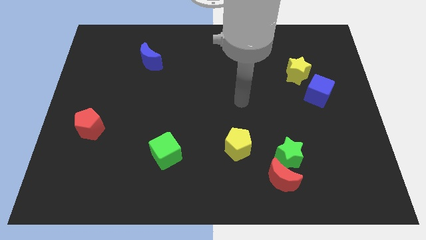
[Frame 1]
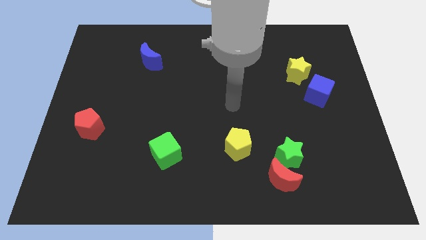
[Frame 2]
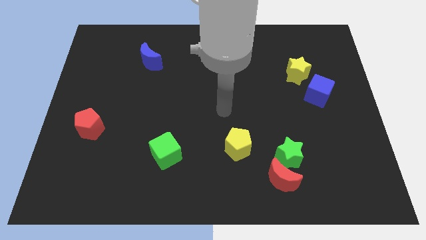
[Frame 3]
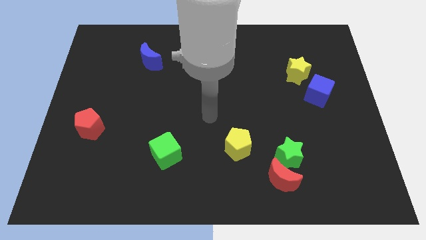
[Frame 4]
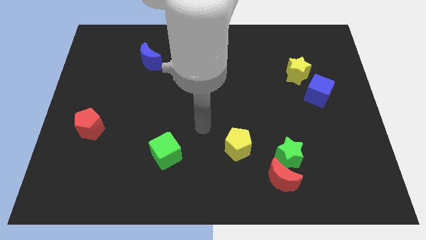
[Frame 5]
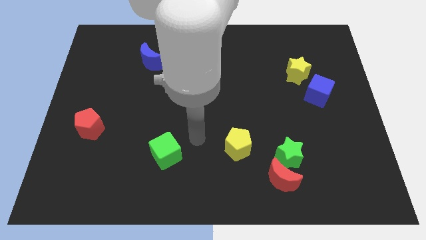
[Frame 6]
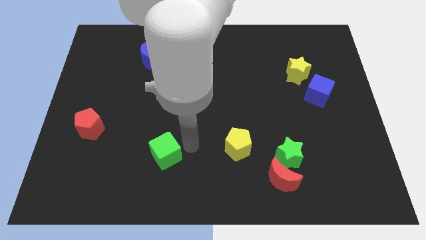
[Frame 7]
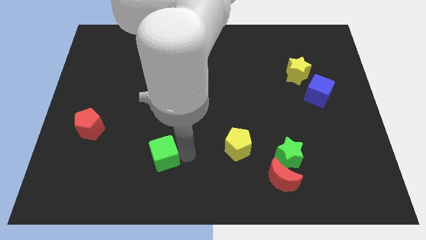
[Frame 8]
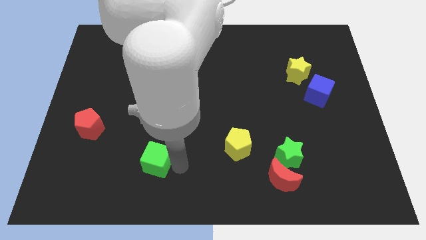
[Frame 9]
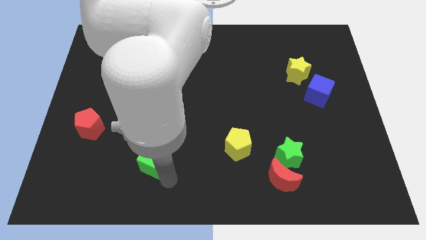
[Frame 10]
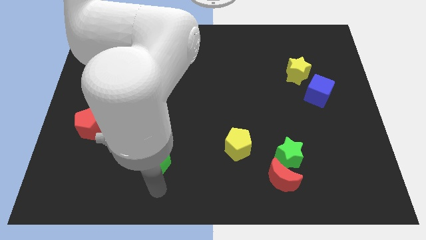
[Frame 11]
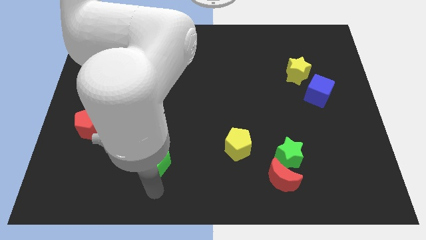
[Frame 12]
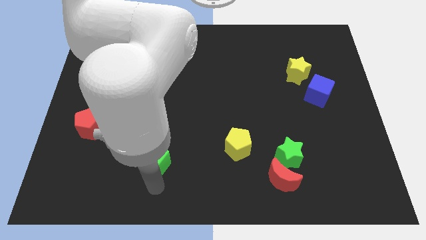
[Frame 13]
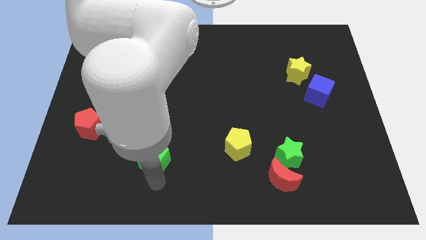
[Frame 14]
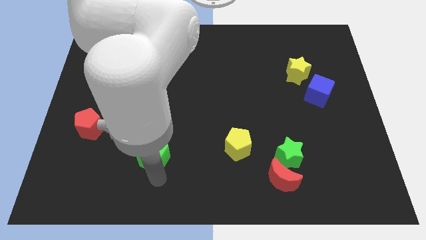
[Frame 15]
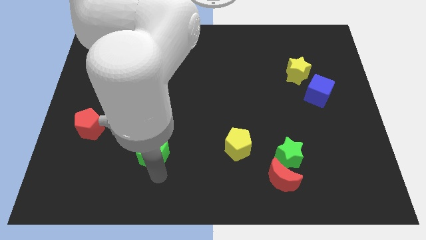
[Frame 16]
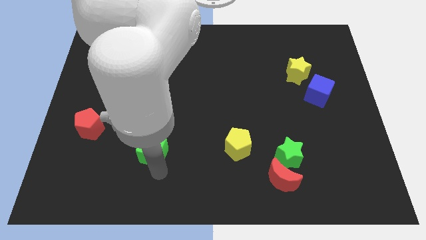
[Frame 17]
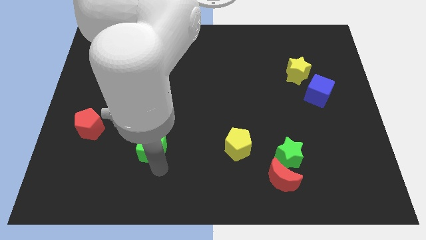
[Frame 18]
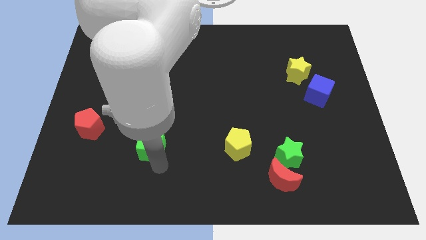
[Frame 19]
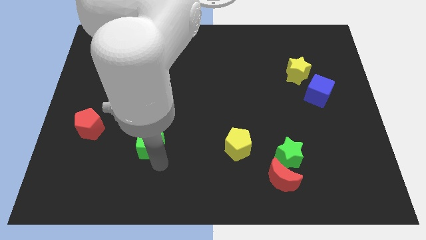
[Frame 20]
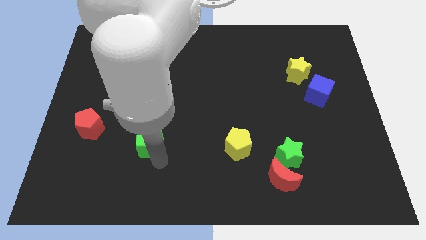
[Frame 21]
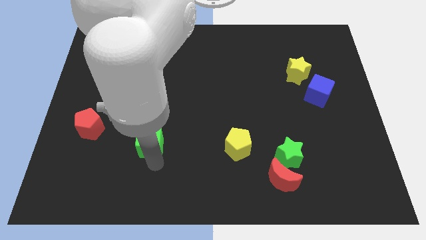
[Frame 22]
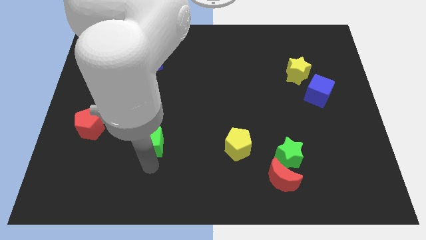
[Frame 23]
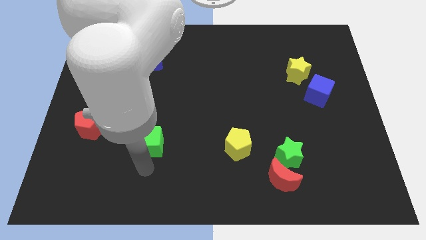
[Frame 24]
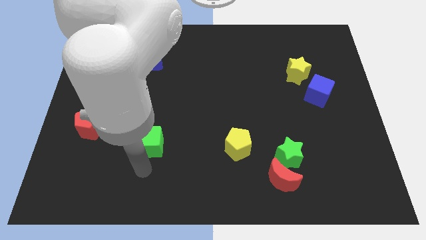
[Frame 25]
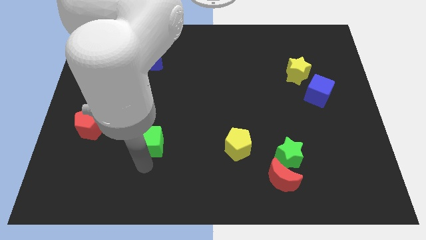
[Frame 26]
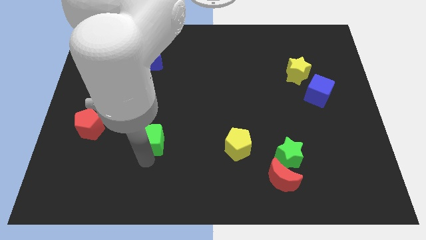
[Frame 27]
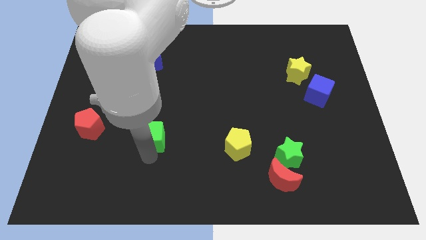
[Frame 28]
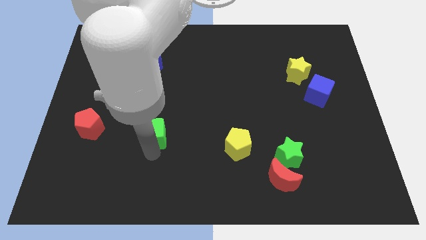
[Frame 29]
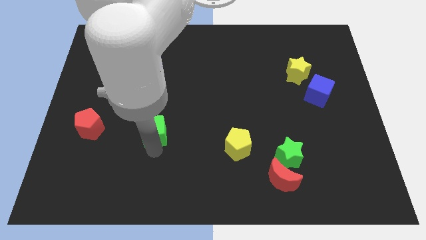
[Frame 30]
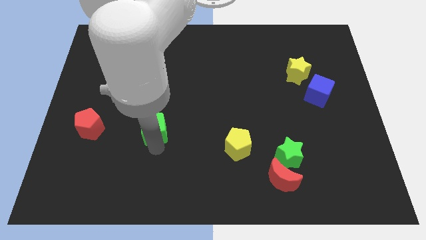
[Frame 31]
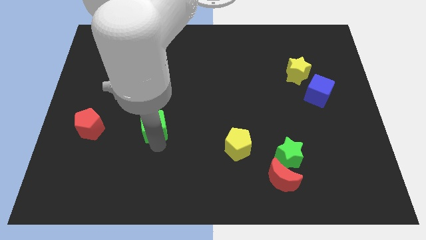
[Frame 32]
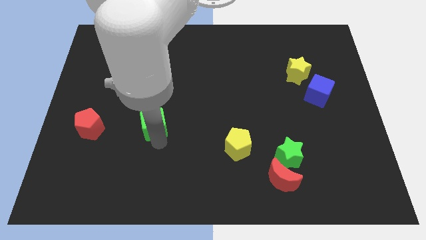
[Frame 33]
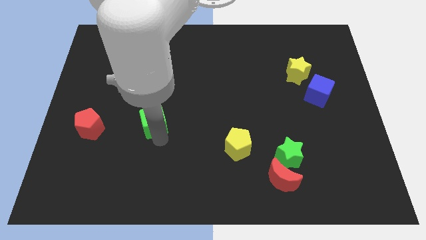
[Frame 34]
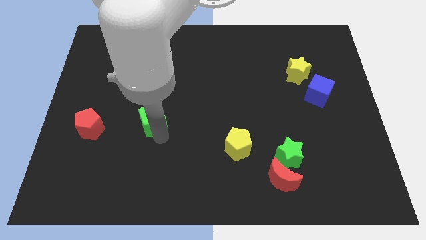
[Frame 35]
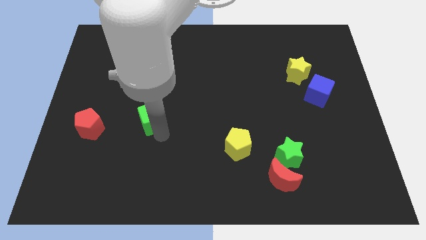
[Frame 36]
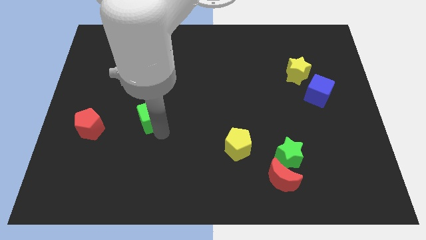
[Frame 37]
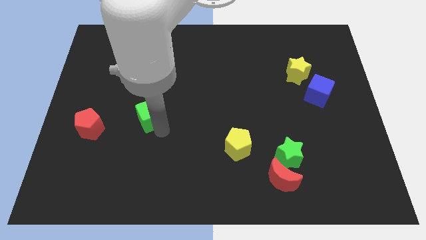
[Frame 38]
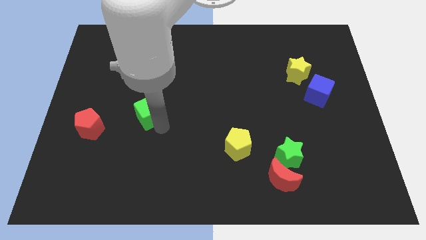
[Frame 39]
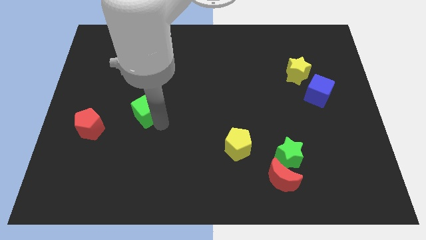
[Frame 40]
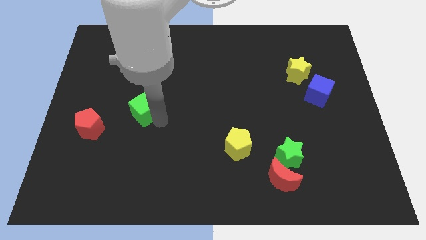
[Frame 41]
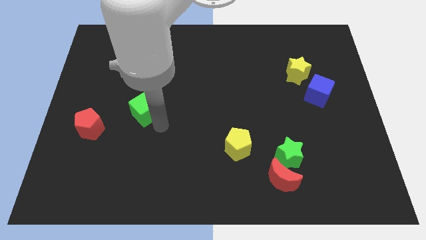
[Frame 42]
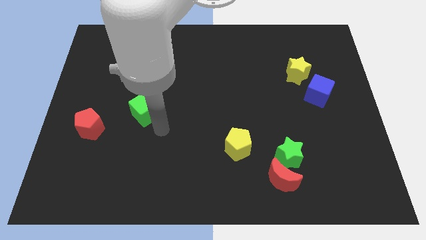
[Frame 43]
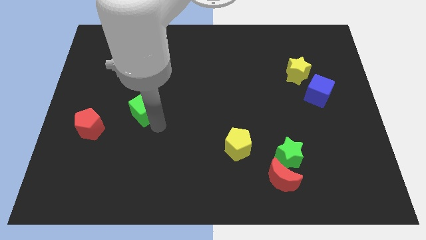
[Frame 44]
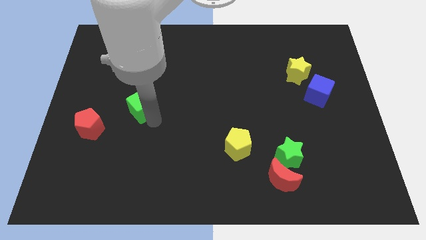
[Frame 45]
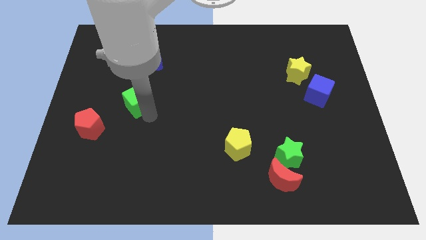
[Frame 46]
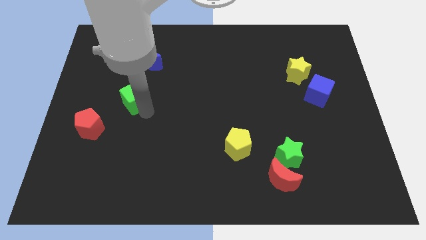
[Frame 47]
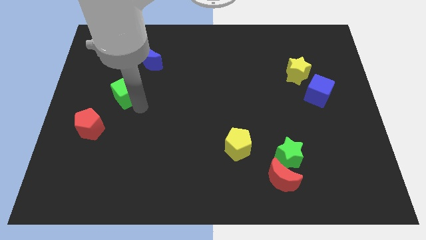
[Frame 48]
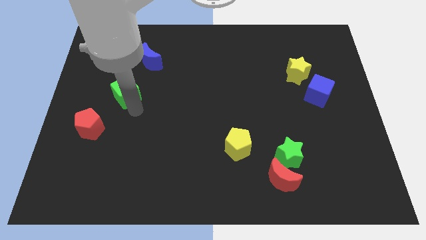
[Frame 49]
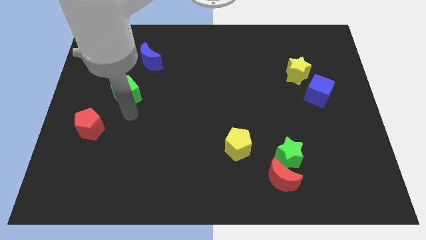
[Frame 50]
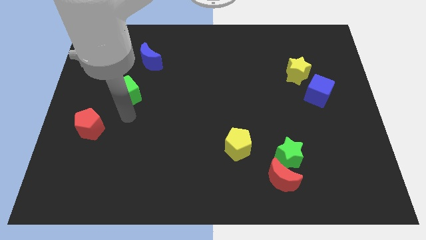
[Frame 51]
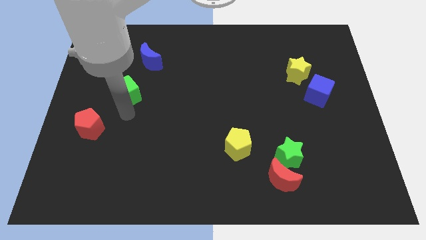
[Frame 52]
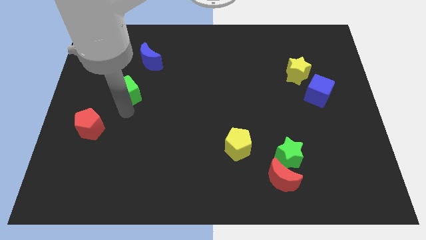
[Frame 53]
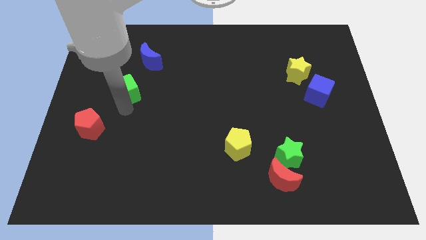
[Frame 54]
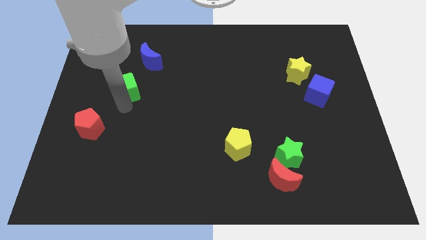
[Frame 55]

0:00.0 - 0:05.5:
put the green cube to the bottom left side of the blue moon

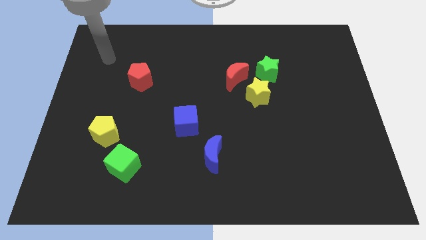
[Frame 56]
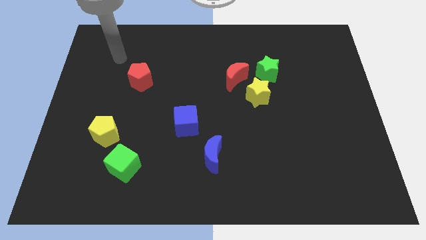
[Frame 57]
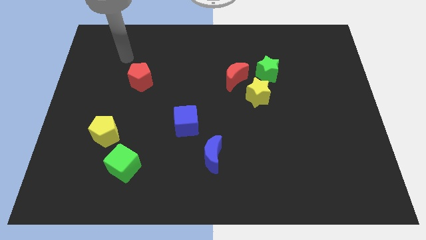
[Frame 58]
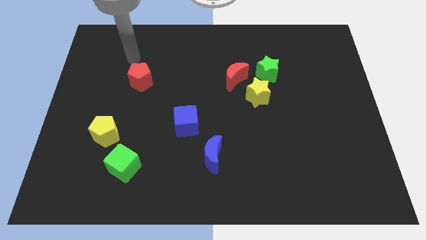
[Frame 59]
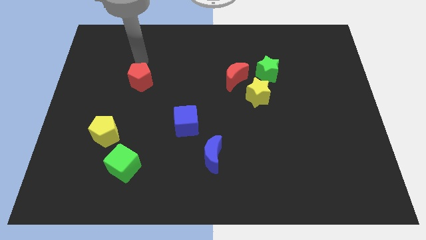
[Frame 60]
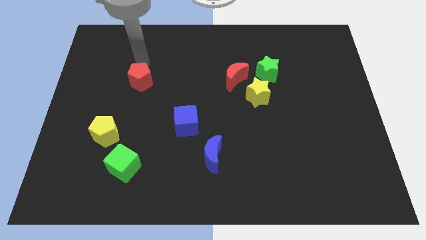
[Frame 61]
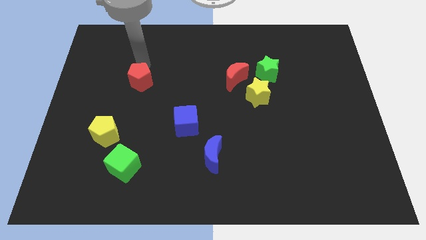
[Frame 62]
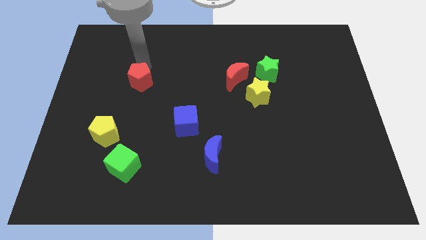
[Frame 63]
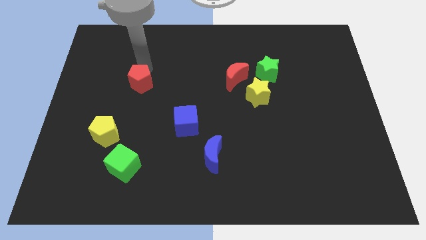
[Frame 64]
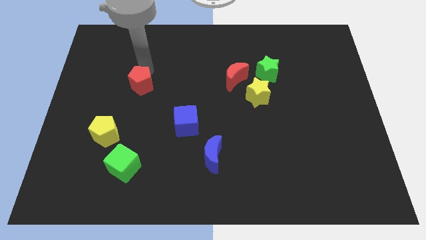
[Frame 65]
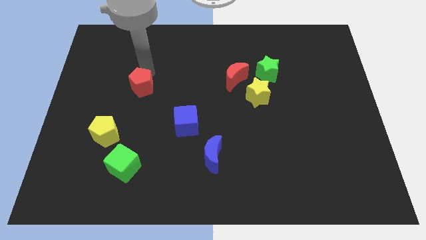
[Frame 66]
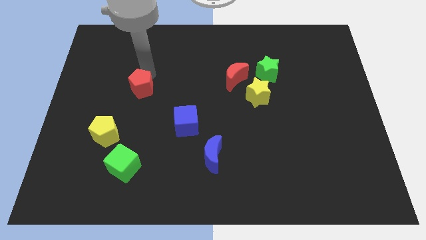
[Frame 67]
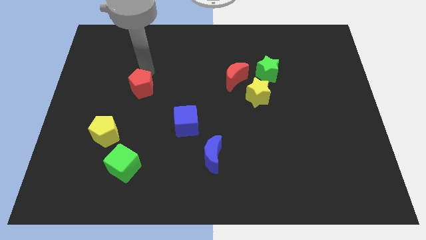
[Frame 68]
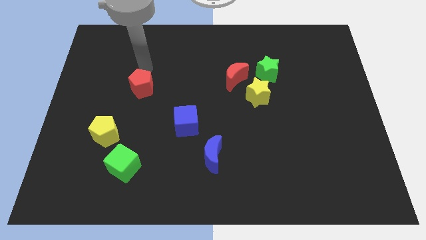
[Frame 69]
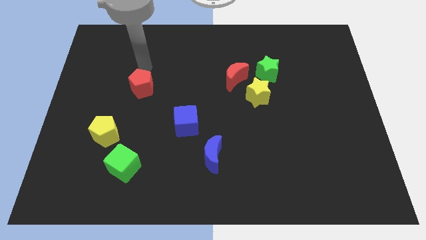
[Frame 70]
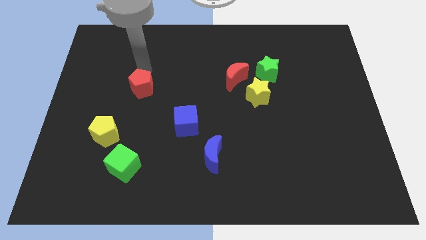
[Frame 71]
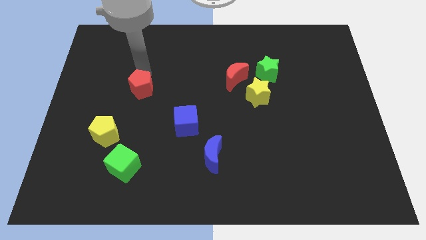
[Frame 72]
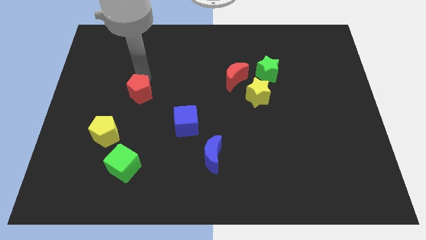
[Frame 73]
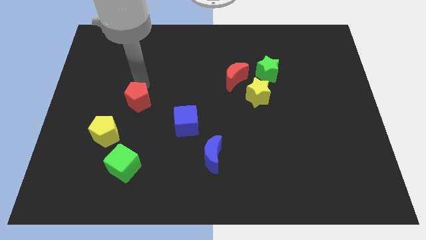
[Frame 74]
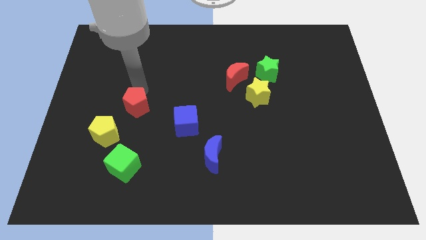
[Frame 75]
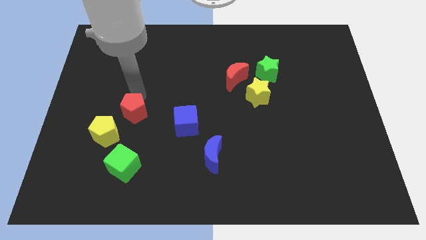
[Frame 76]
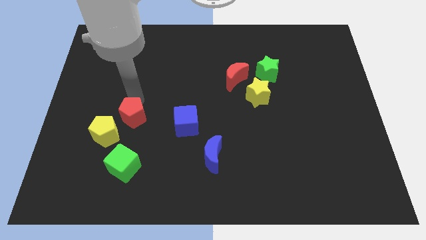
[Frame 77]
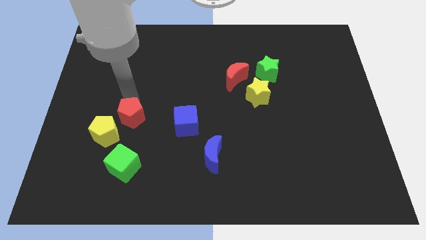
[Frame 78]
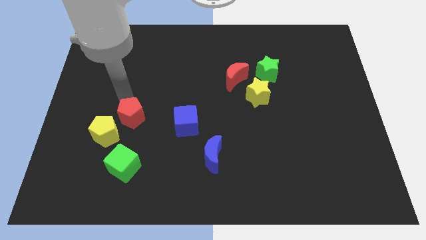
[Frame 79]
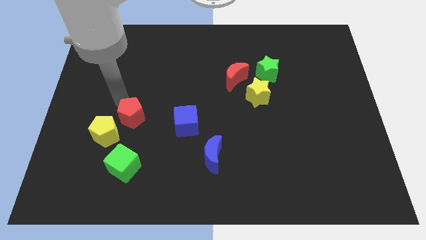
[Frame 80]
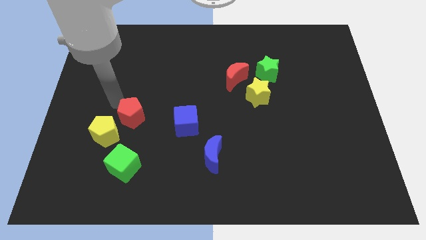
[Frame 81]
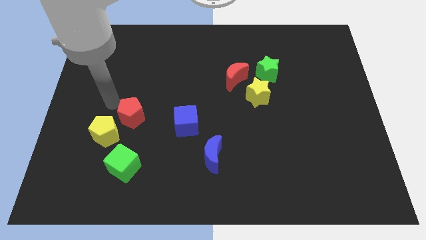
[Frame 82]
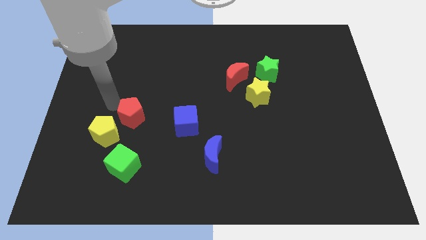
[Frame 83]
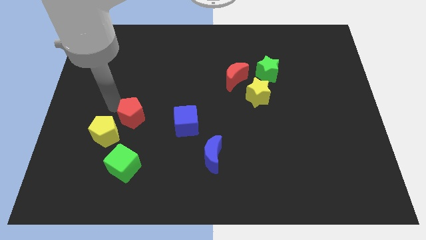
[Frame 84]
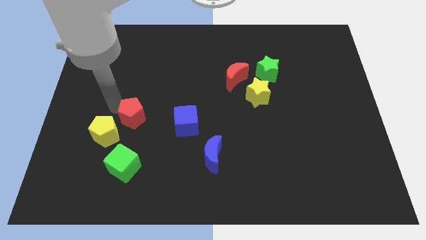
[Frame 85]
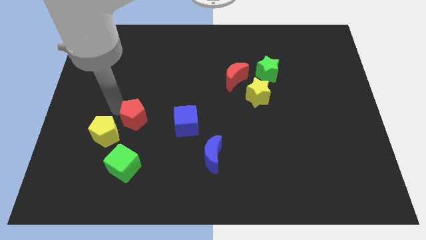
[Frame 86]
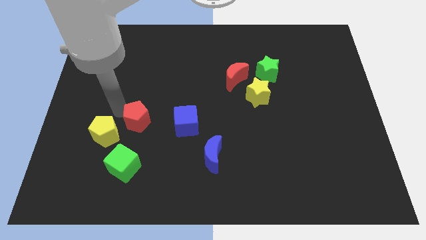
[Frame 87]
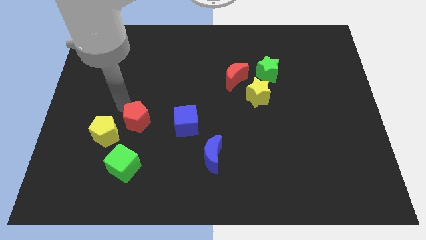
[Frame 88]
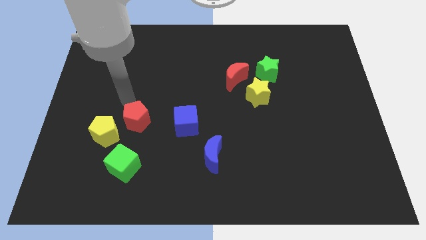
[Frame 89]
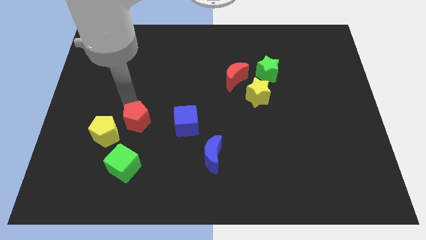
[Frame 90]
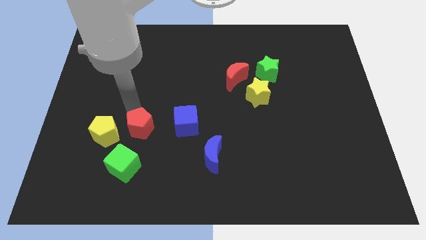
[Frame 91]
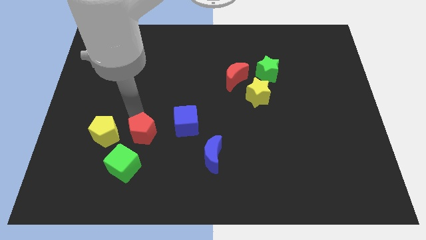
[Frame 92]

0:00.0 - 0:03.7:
push the red pentagon to the top right of the green cube
